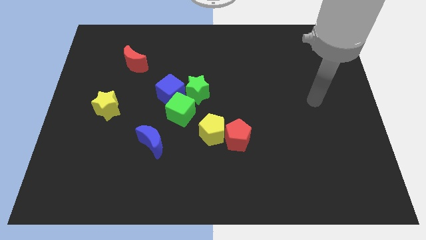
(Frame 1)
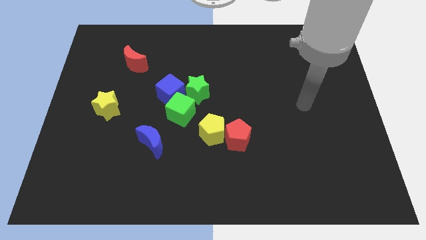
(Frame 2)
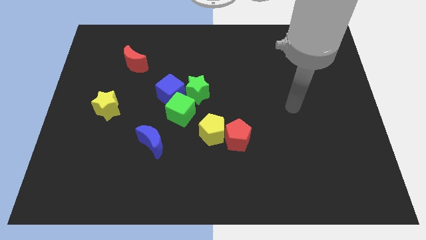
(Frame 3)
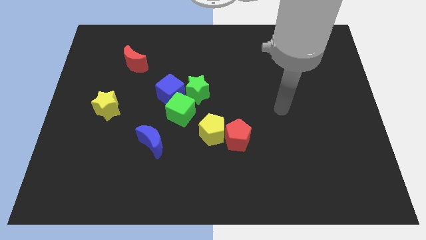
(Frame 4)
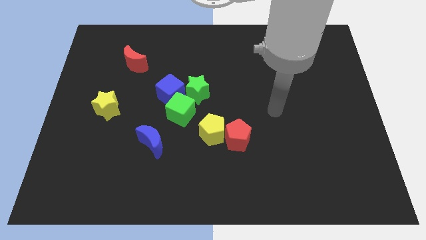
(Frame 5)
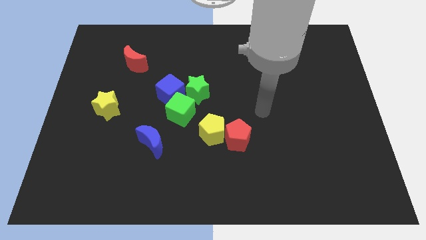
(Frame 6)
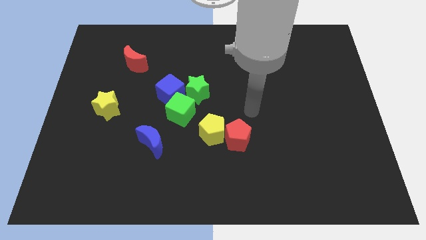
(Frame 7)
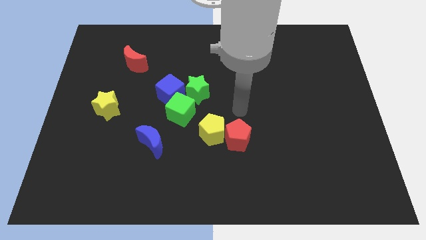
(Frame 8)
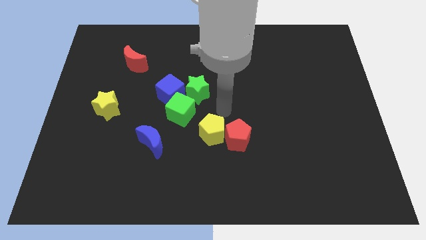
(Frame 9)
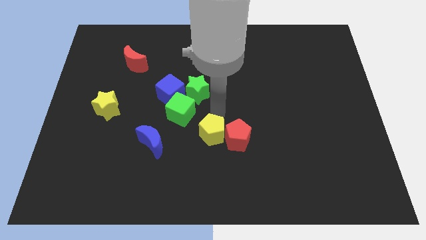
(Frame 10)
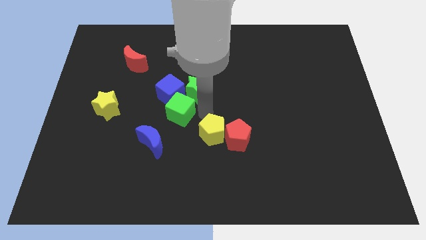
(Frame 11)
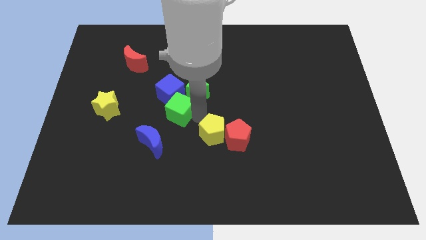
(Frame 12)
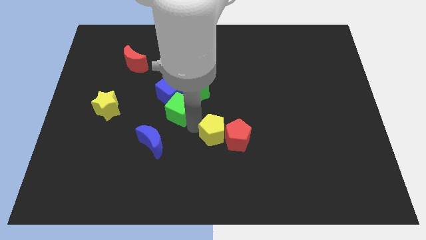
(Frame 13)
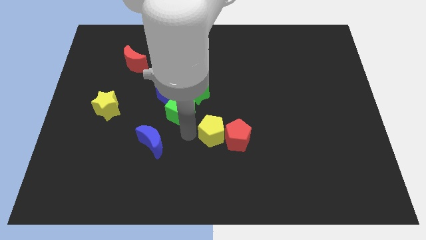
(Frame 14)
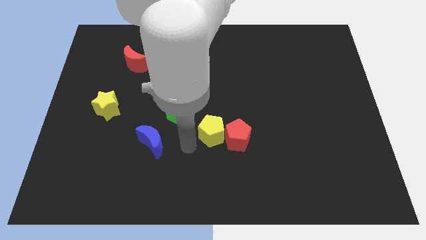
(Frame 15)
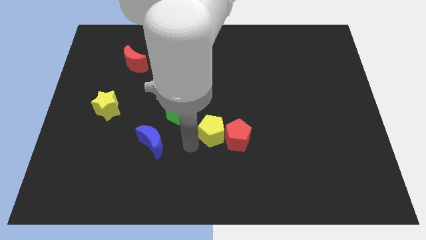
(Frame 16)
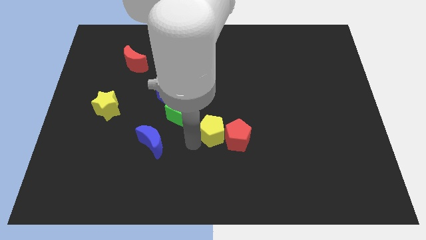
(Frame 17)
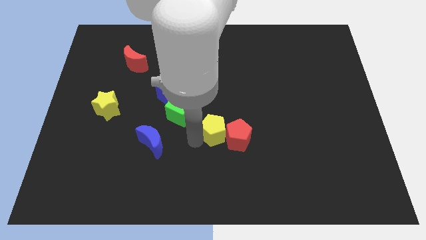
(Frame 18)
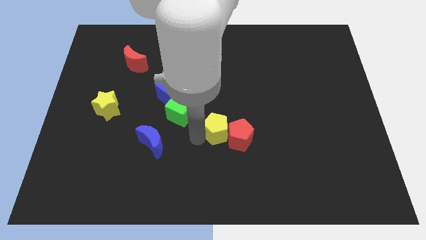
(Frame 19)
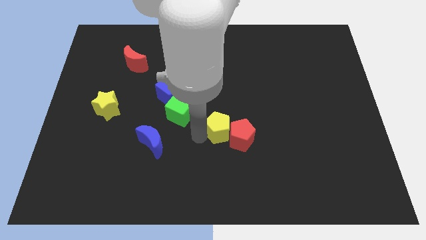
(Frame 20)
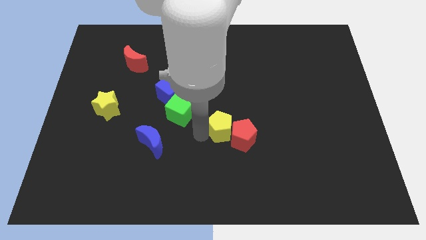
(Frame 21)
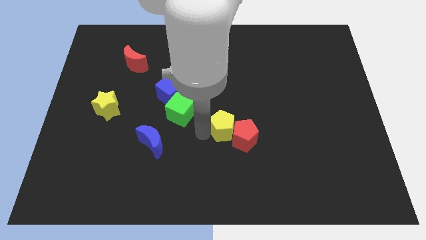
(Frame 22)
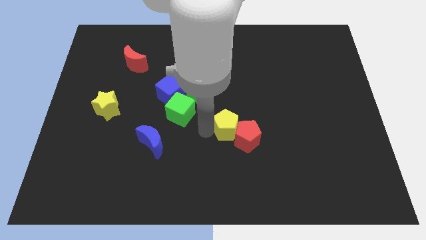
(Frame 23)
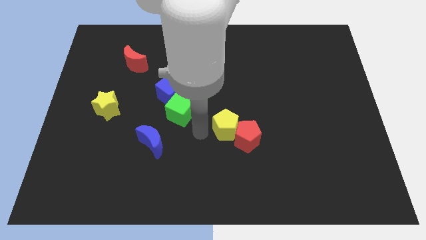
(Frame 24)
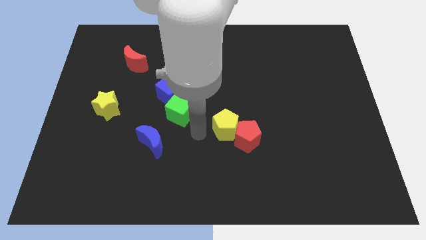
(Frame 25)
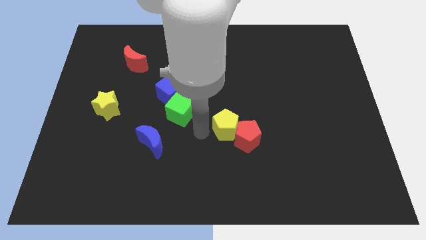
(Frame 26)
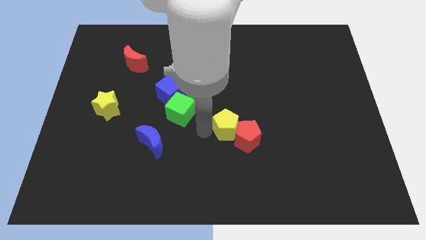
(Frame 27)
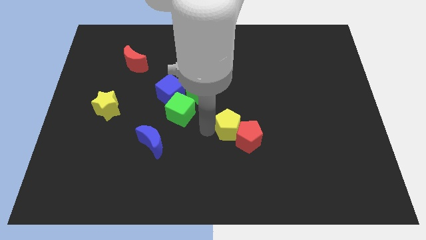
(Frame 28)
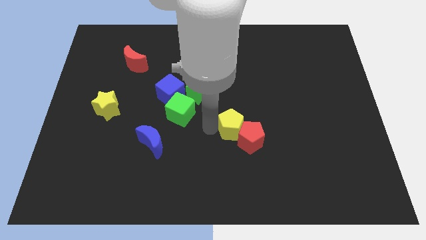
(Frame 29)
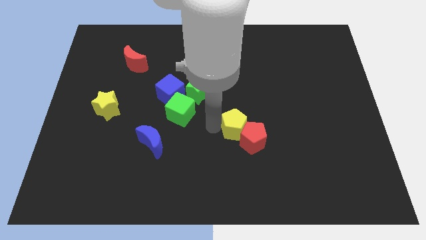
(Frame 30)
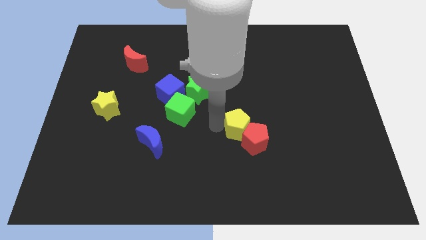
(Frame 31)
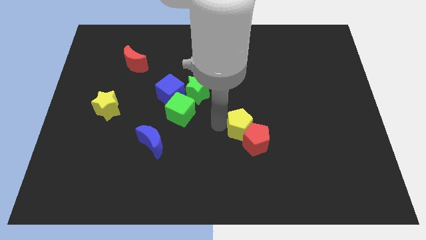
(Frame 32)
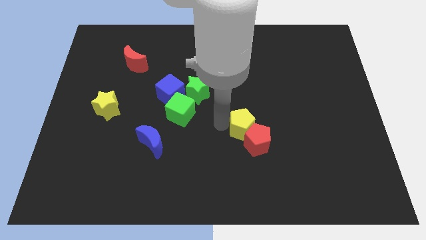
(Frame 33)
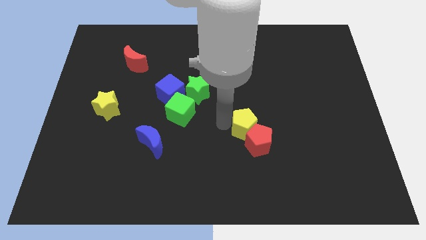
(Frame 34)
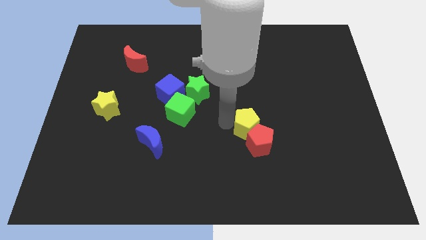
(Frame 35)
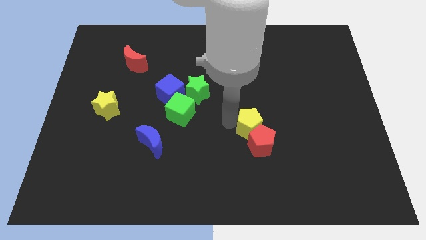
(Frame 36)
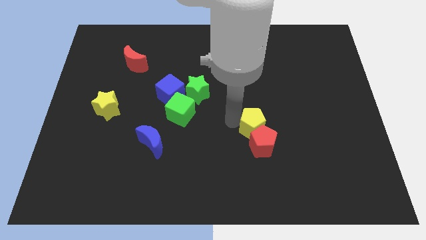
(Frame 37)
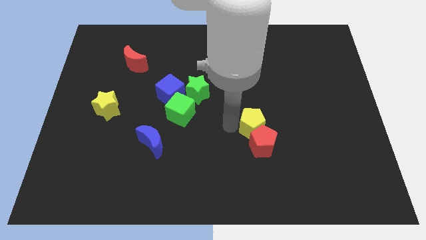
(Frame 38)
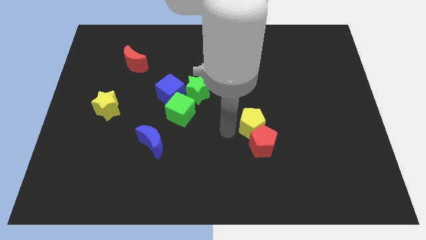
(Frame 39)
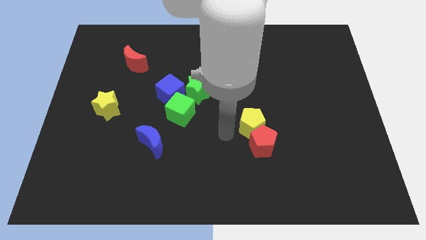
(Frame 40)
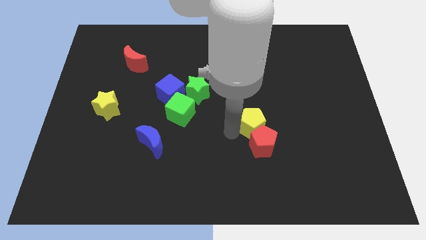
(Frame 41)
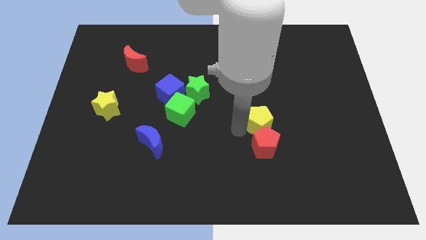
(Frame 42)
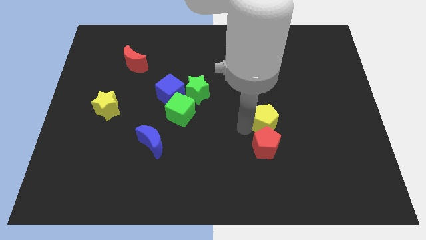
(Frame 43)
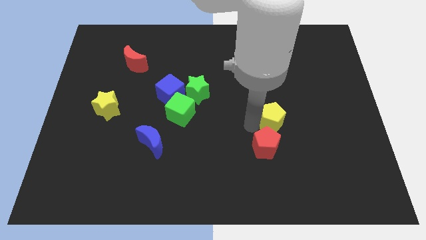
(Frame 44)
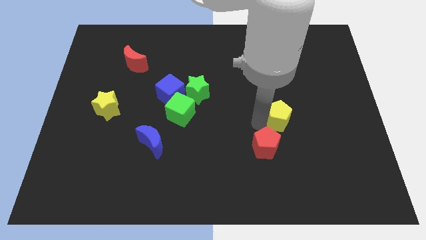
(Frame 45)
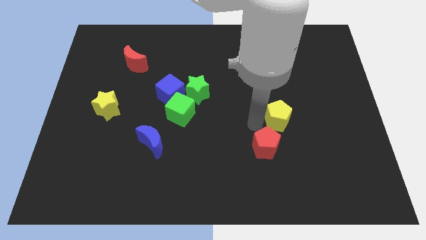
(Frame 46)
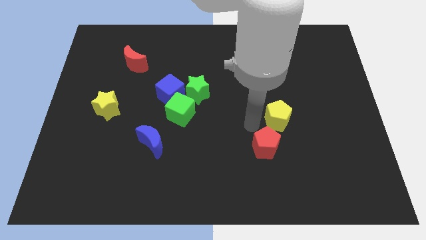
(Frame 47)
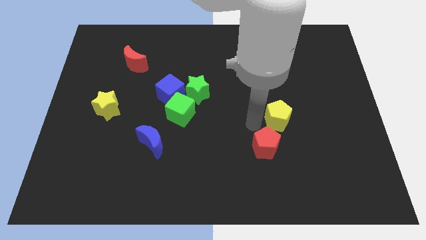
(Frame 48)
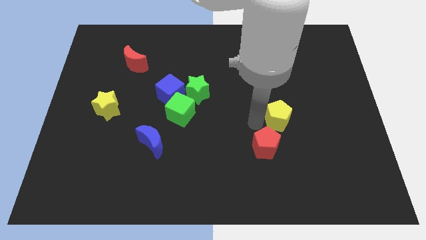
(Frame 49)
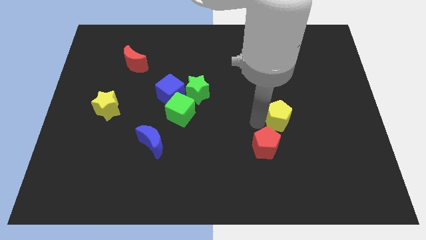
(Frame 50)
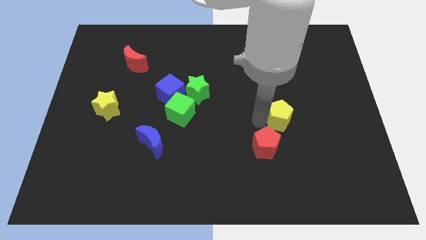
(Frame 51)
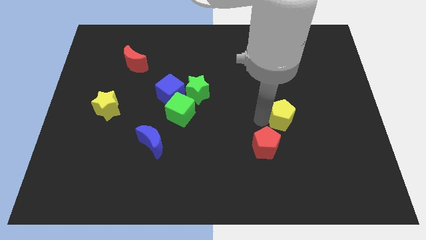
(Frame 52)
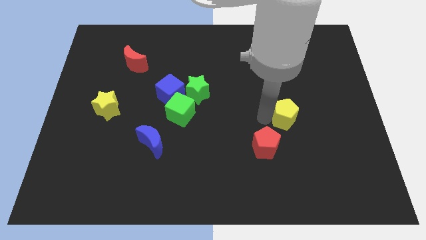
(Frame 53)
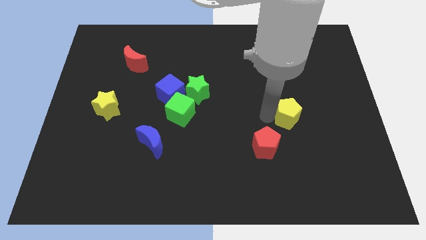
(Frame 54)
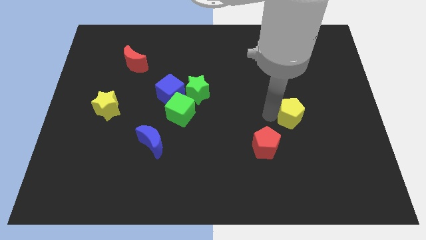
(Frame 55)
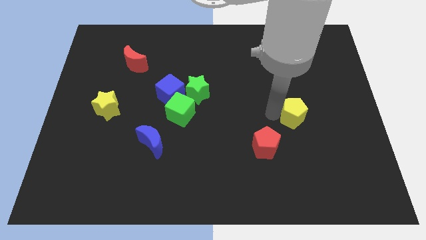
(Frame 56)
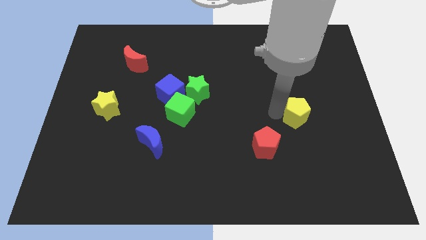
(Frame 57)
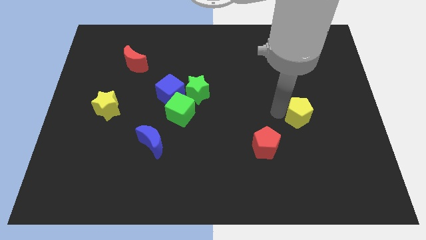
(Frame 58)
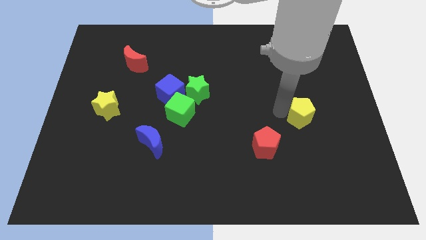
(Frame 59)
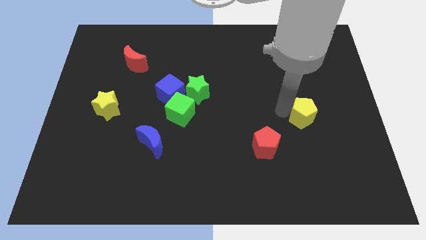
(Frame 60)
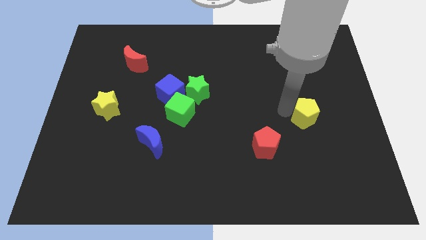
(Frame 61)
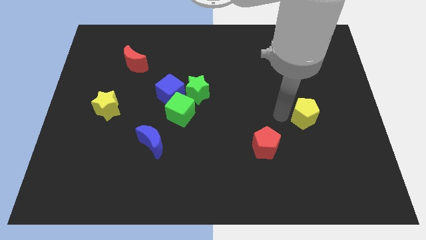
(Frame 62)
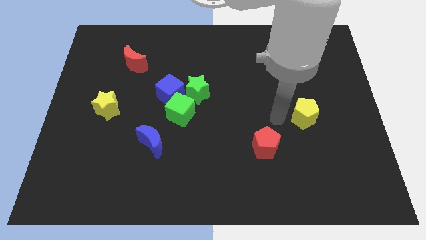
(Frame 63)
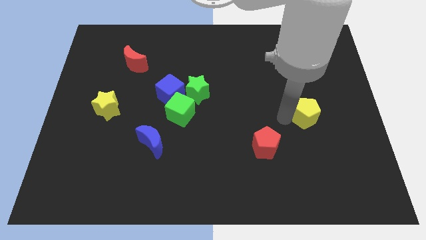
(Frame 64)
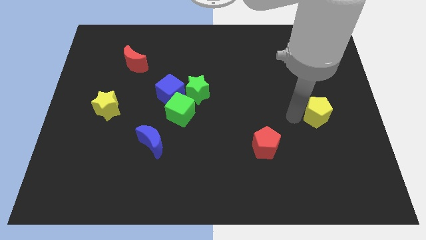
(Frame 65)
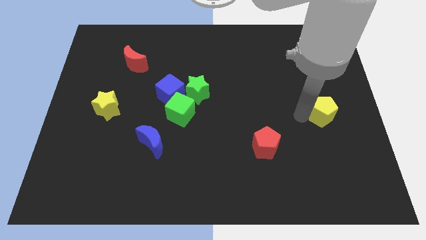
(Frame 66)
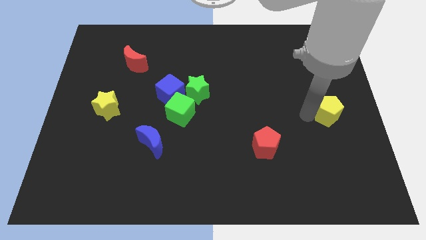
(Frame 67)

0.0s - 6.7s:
slide the yellow pentagon to the right side of the board
